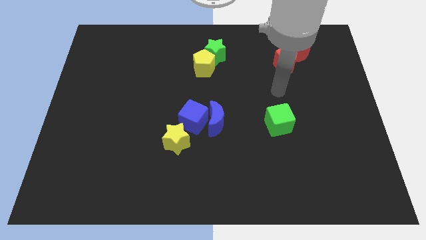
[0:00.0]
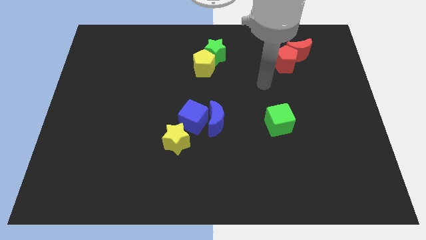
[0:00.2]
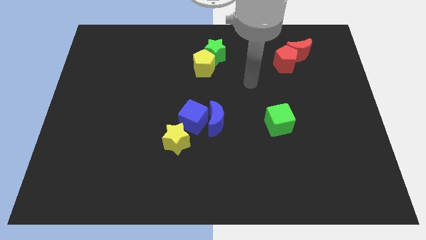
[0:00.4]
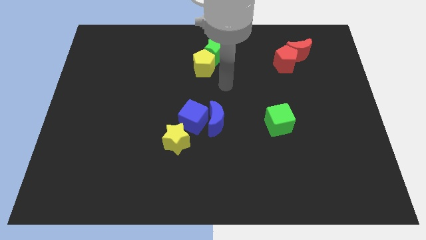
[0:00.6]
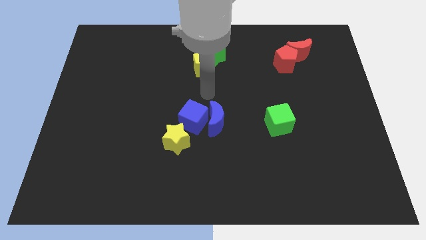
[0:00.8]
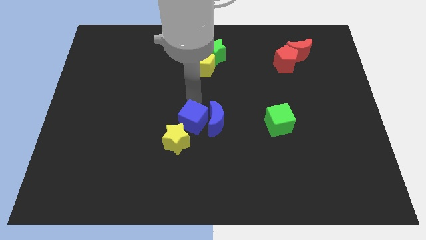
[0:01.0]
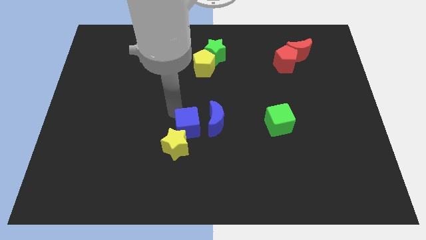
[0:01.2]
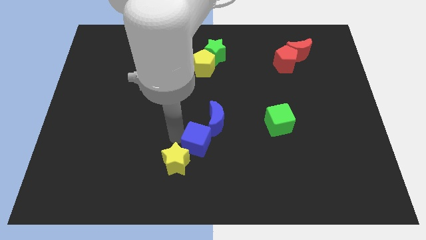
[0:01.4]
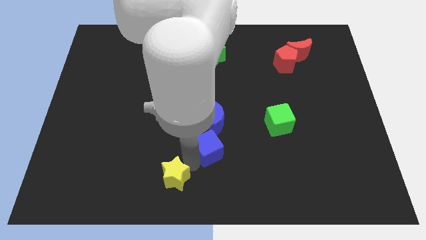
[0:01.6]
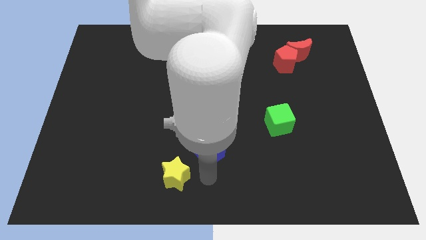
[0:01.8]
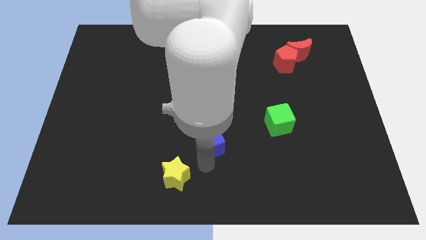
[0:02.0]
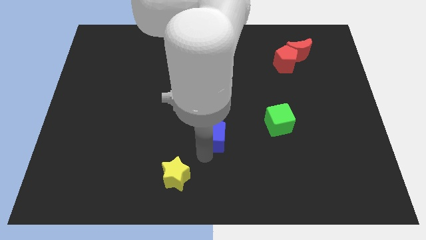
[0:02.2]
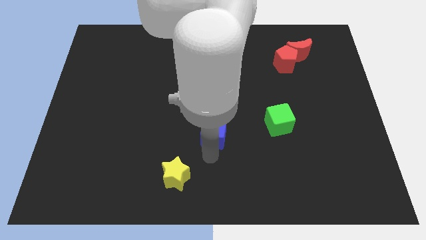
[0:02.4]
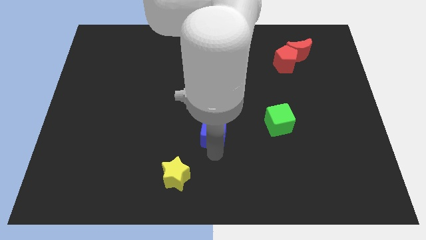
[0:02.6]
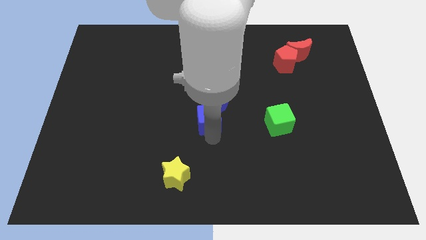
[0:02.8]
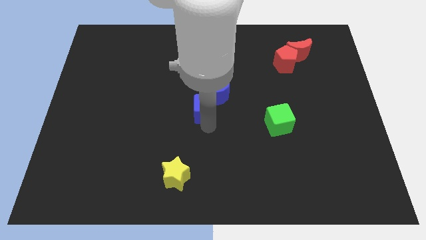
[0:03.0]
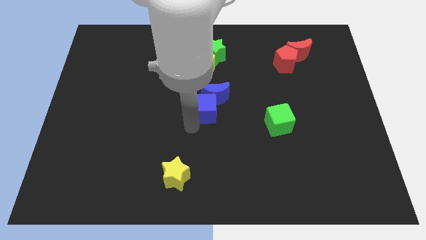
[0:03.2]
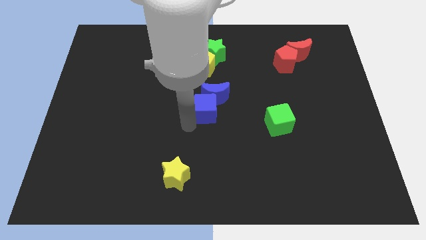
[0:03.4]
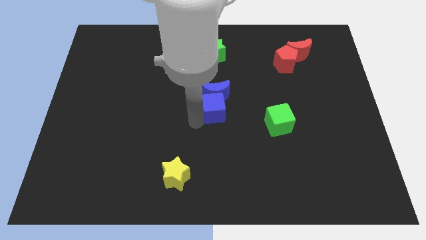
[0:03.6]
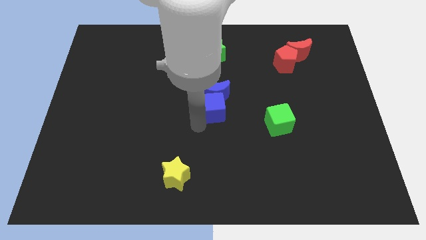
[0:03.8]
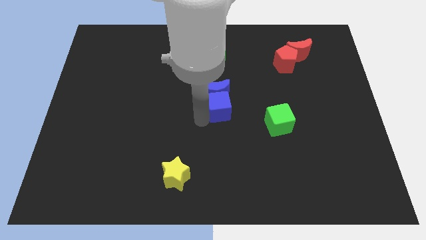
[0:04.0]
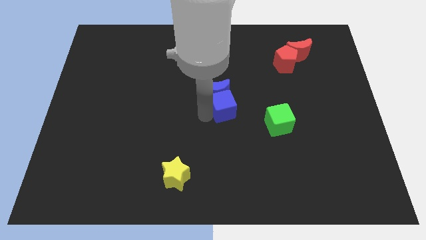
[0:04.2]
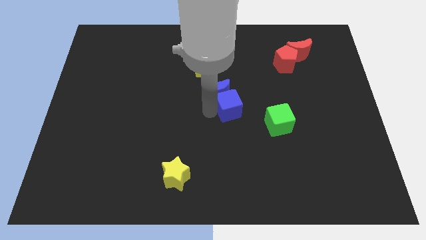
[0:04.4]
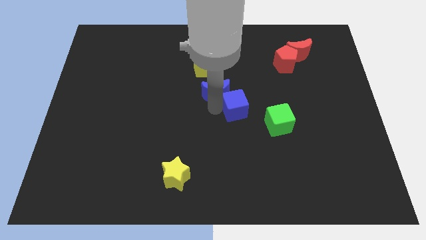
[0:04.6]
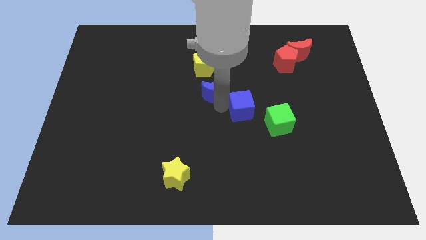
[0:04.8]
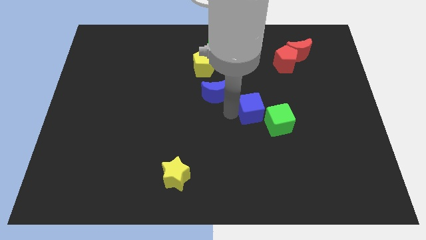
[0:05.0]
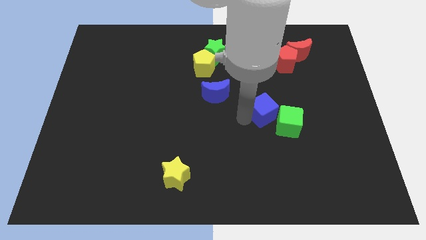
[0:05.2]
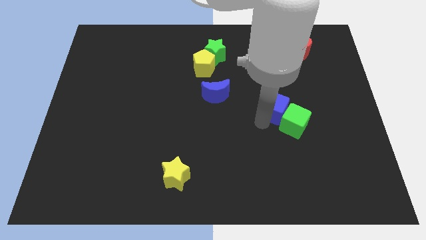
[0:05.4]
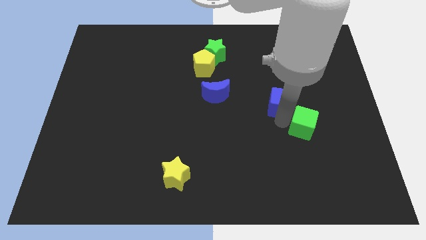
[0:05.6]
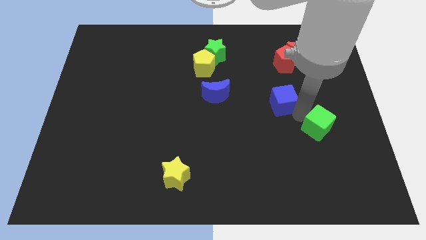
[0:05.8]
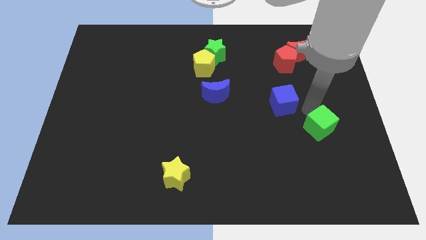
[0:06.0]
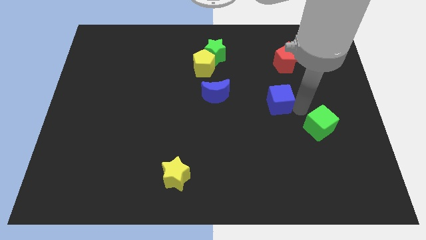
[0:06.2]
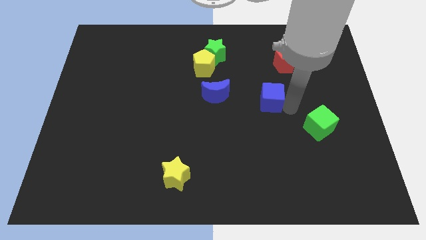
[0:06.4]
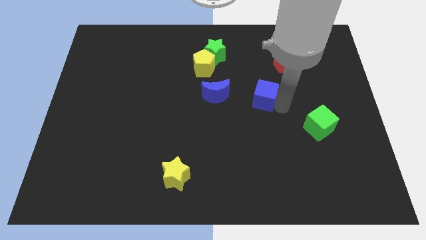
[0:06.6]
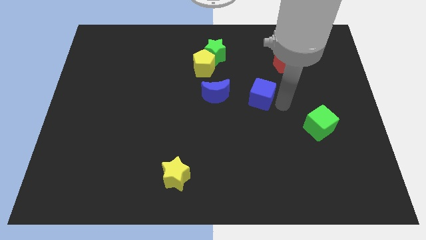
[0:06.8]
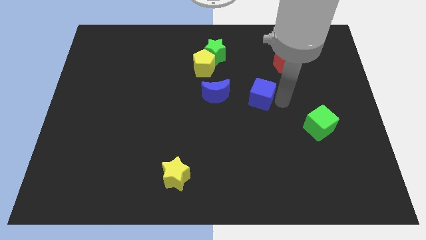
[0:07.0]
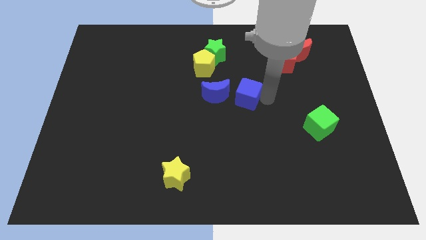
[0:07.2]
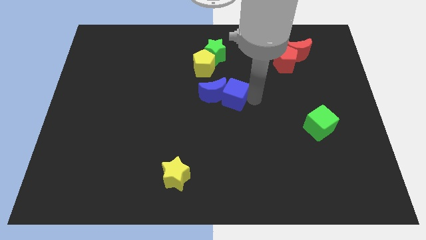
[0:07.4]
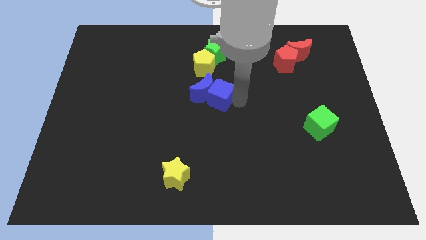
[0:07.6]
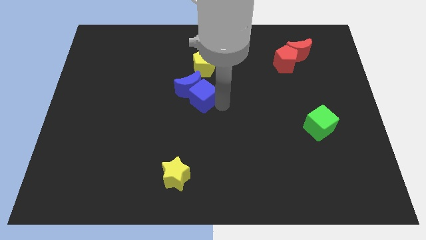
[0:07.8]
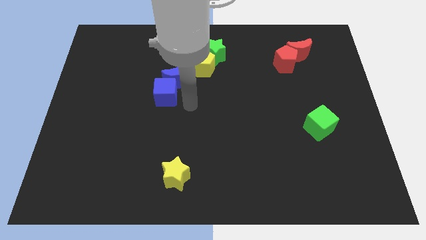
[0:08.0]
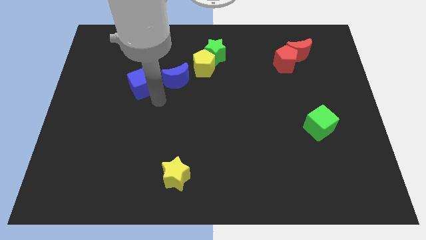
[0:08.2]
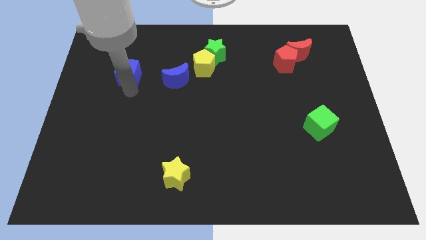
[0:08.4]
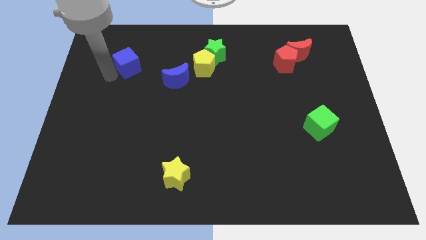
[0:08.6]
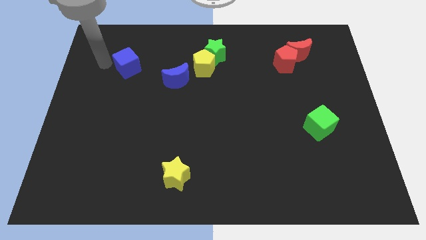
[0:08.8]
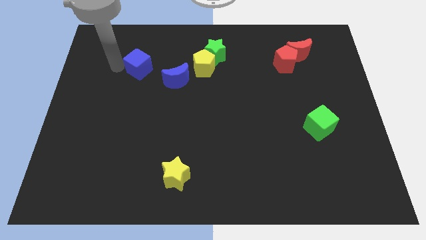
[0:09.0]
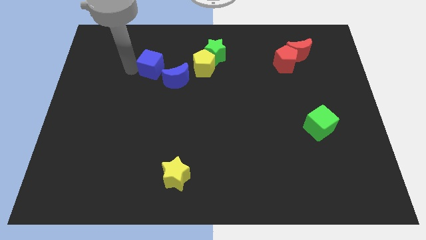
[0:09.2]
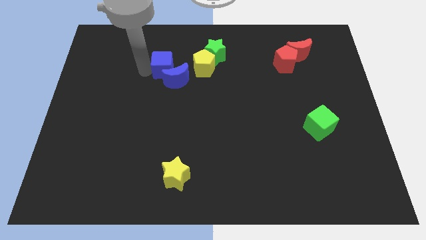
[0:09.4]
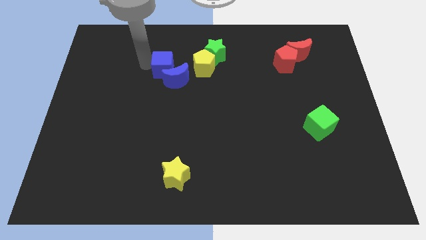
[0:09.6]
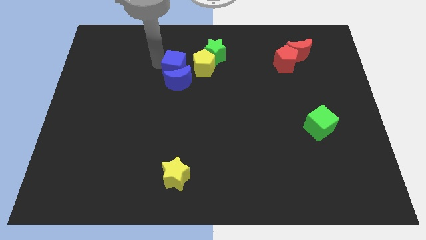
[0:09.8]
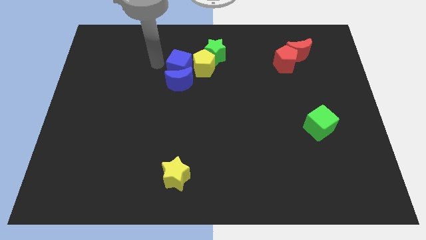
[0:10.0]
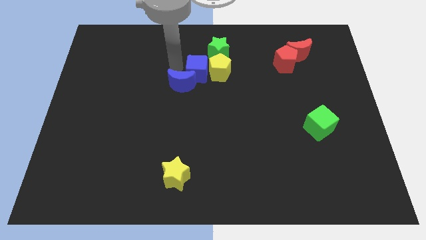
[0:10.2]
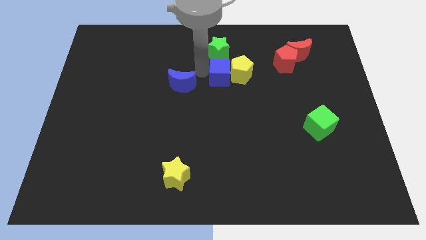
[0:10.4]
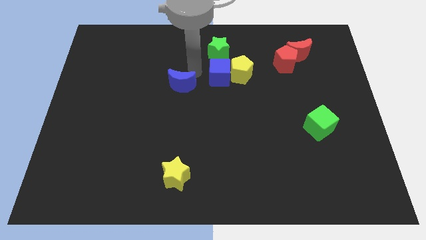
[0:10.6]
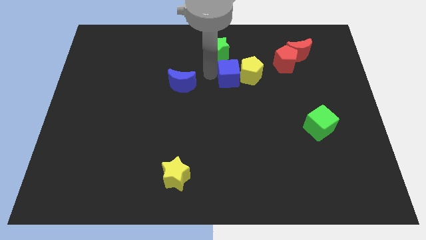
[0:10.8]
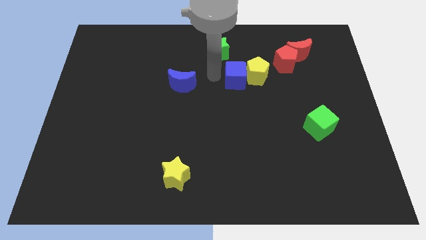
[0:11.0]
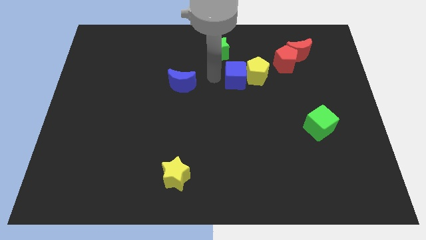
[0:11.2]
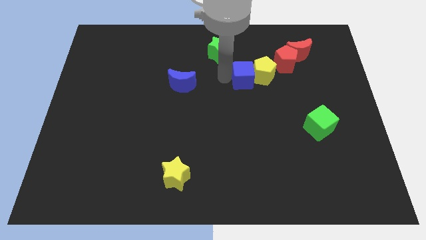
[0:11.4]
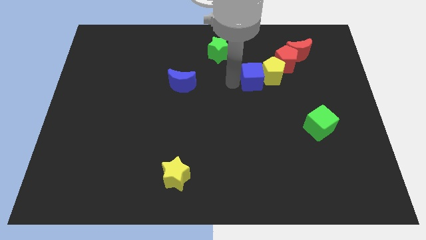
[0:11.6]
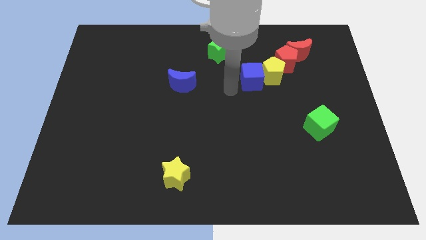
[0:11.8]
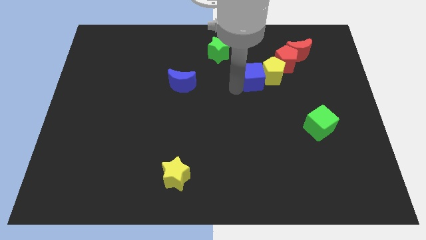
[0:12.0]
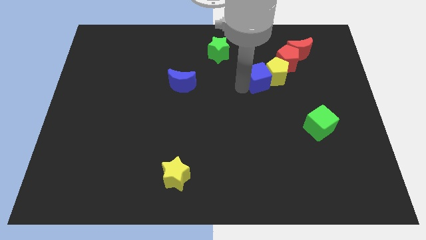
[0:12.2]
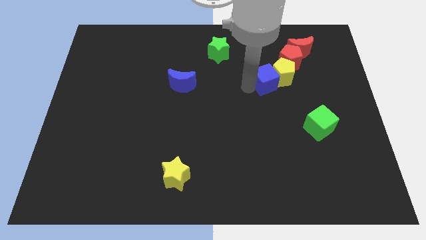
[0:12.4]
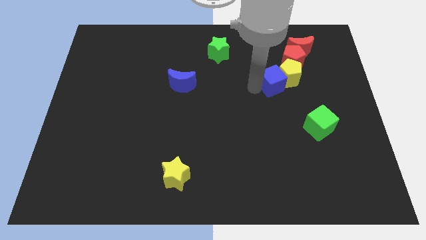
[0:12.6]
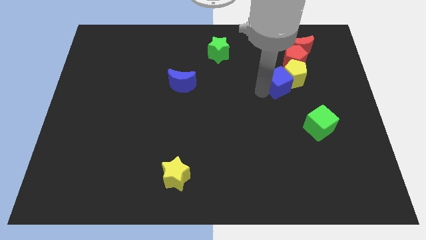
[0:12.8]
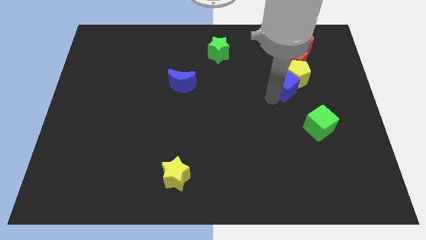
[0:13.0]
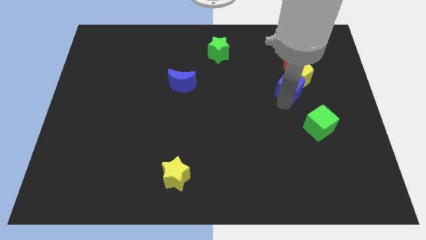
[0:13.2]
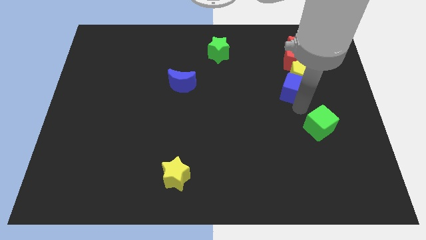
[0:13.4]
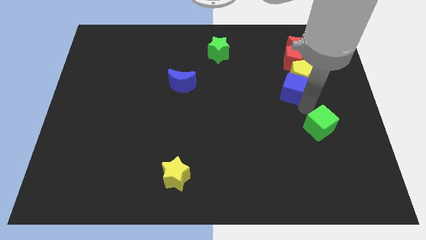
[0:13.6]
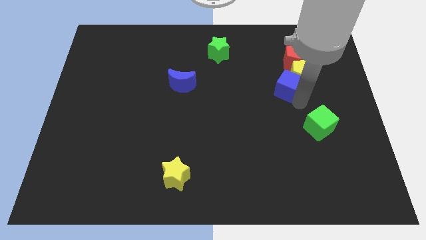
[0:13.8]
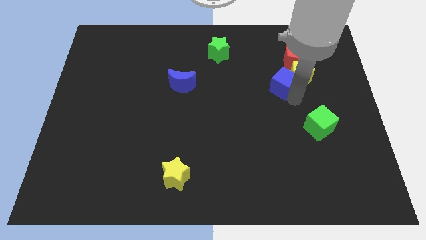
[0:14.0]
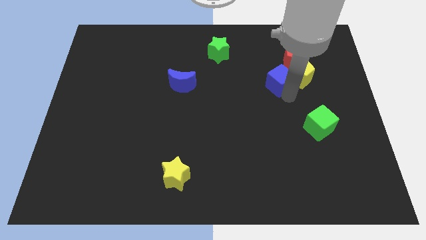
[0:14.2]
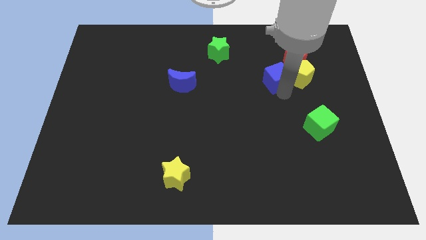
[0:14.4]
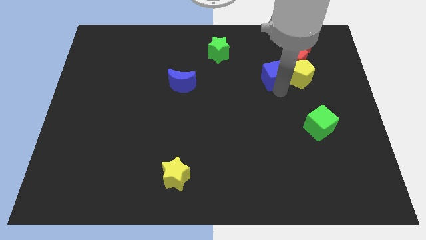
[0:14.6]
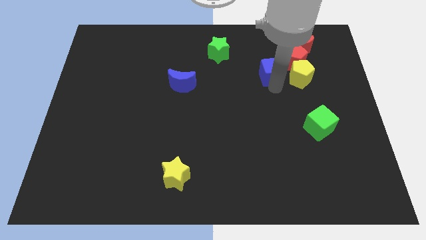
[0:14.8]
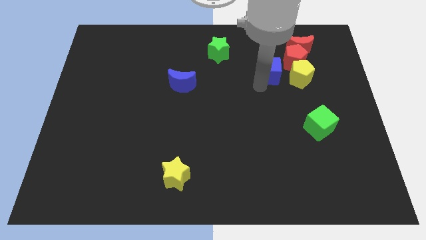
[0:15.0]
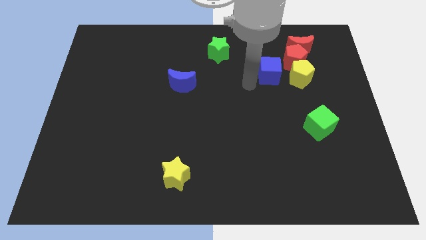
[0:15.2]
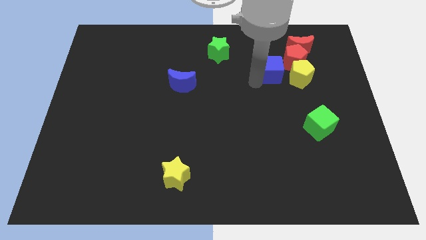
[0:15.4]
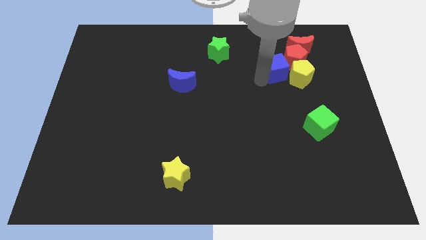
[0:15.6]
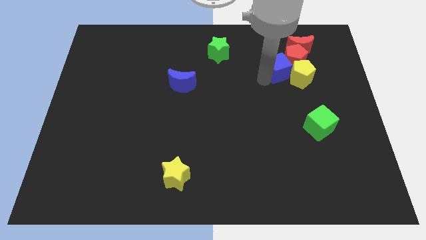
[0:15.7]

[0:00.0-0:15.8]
put the blue cube towards the red pentagon
